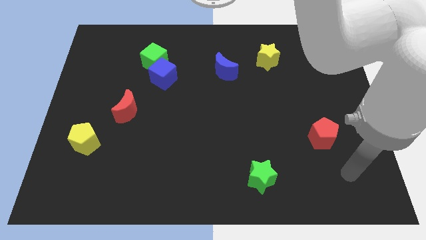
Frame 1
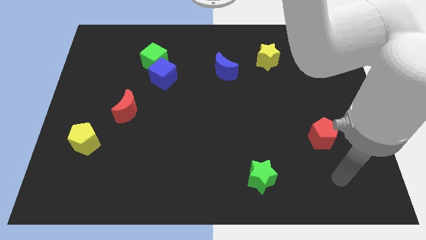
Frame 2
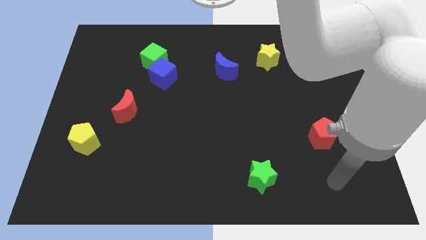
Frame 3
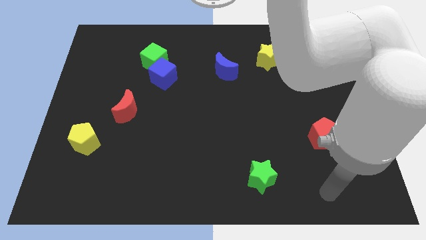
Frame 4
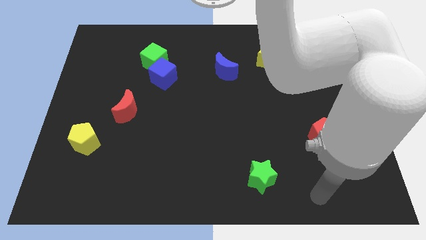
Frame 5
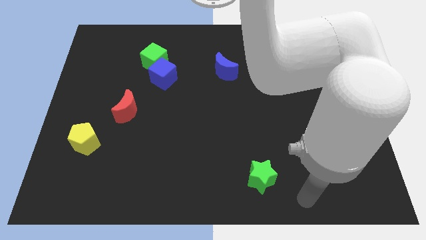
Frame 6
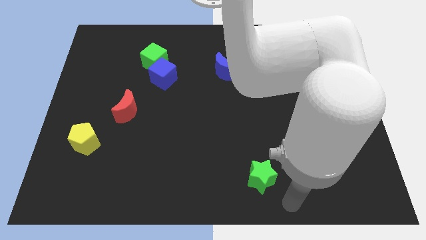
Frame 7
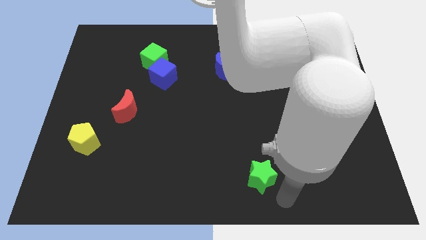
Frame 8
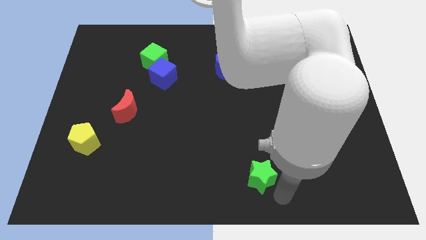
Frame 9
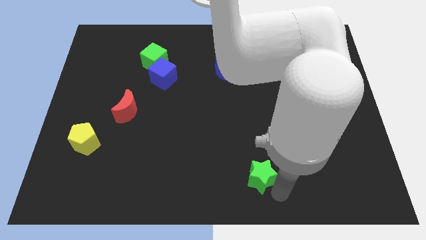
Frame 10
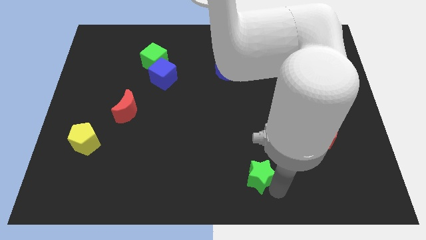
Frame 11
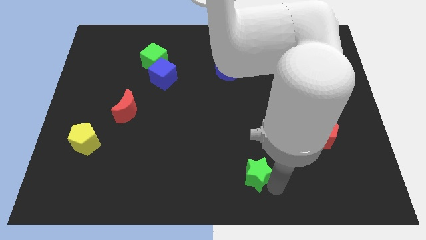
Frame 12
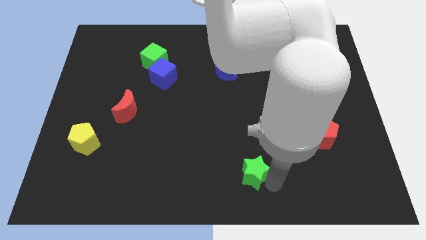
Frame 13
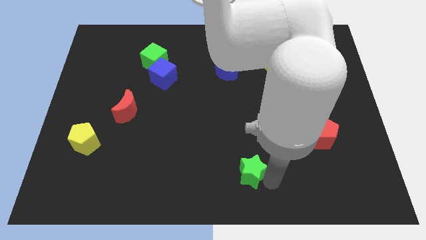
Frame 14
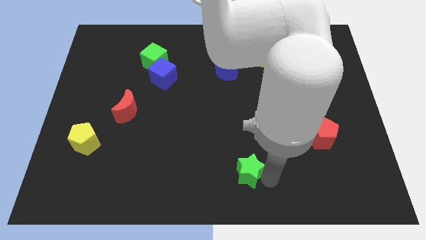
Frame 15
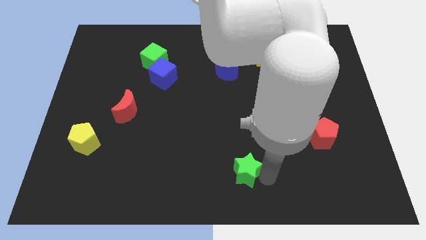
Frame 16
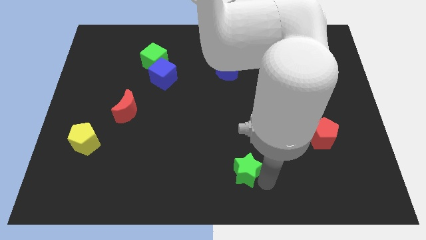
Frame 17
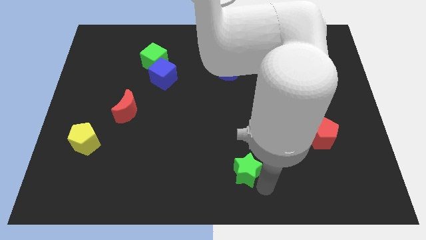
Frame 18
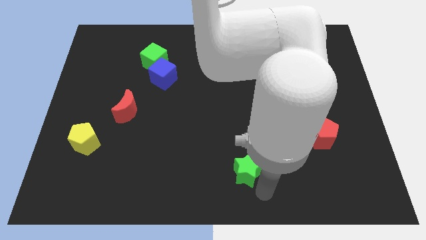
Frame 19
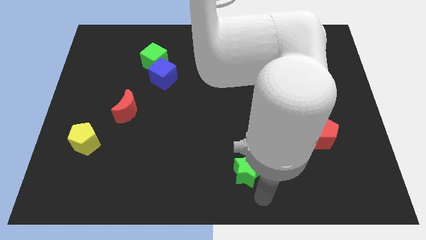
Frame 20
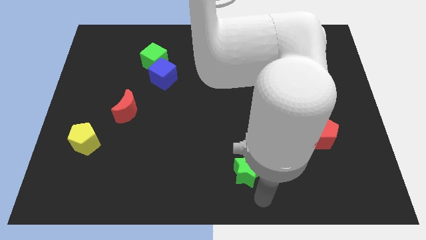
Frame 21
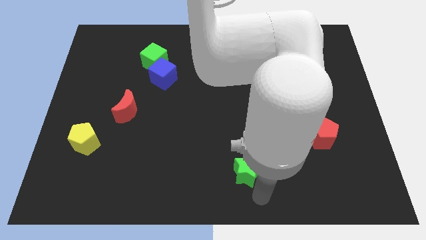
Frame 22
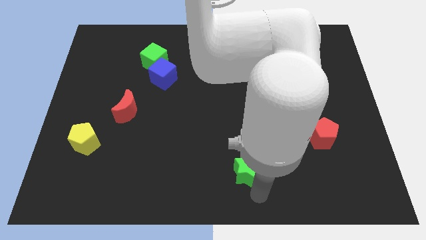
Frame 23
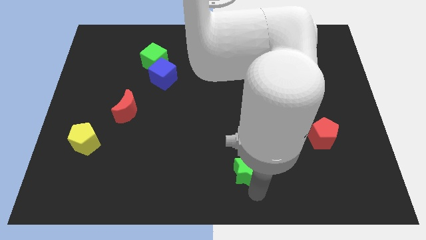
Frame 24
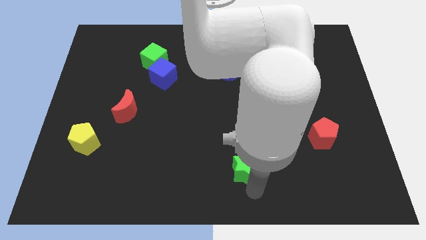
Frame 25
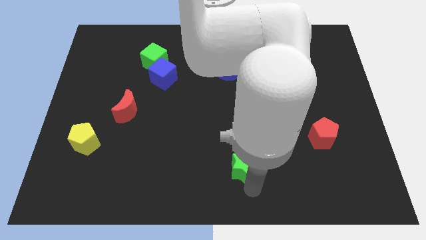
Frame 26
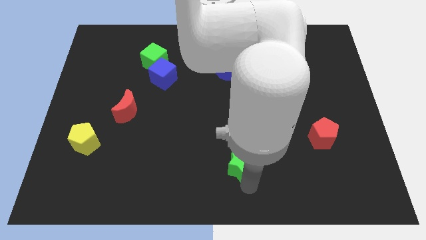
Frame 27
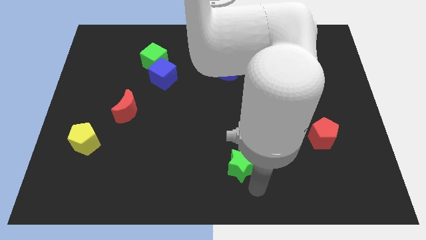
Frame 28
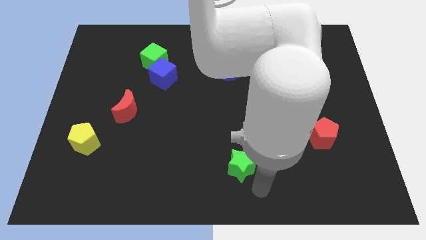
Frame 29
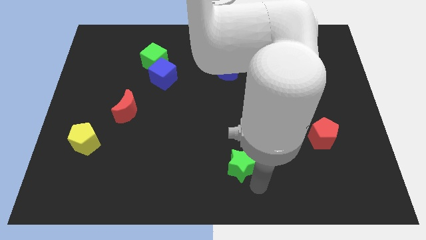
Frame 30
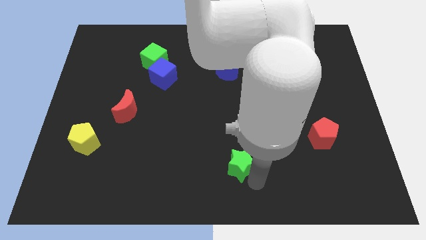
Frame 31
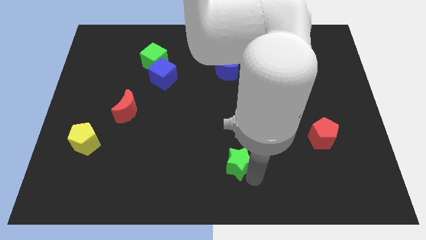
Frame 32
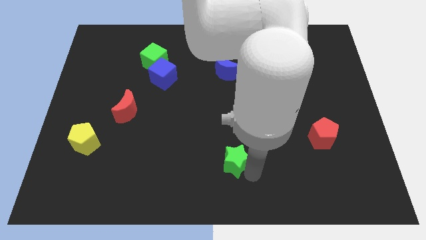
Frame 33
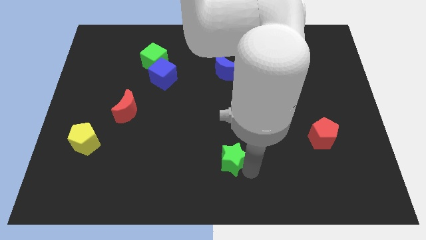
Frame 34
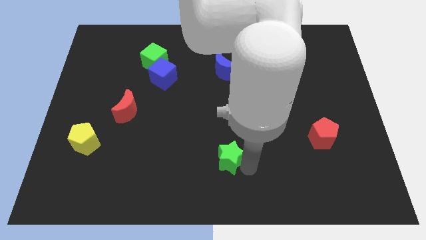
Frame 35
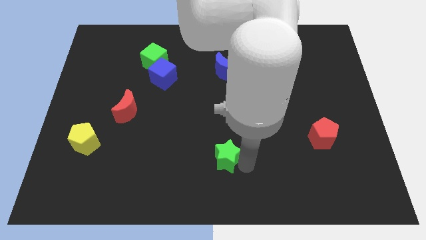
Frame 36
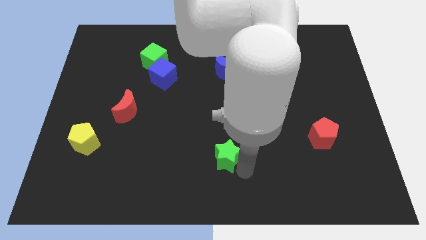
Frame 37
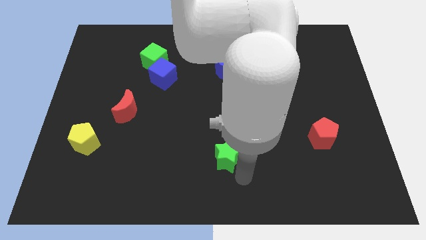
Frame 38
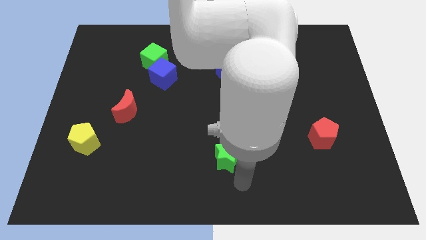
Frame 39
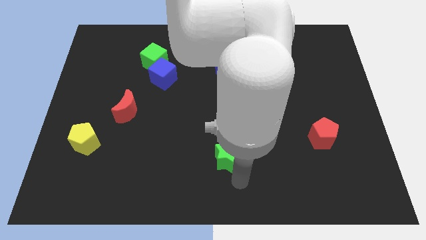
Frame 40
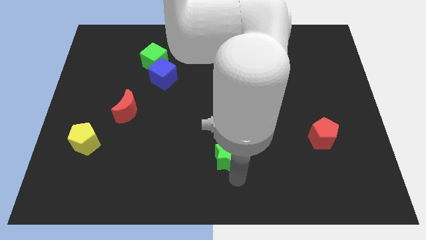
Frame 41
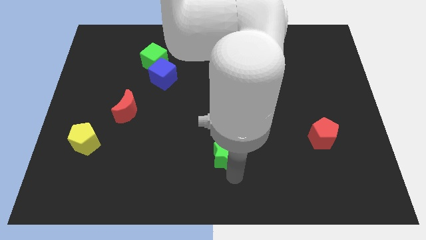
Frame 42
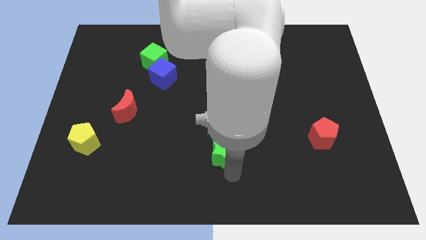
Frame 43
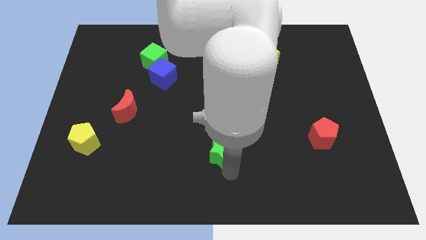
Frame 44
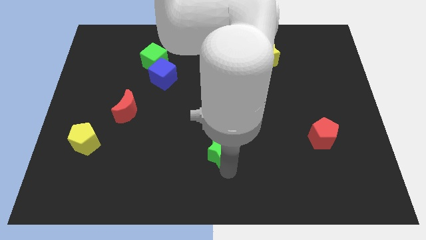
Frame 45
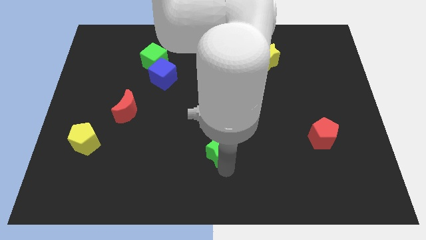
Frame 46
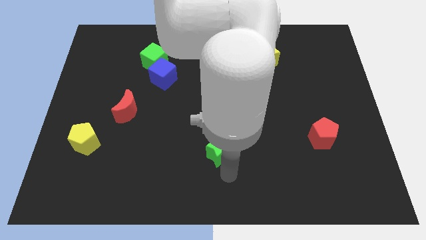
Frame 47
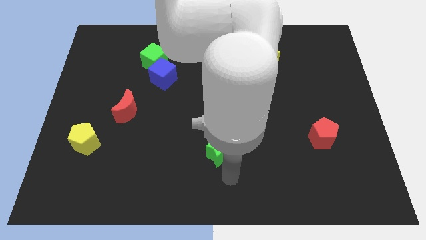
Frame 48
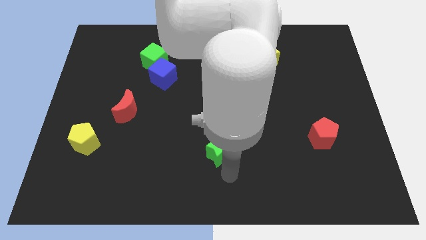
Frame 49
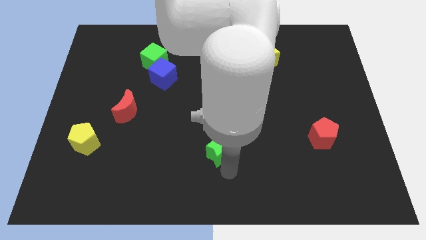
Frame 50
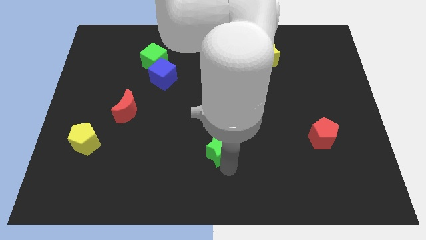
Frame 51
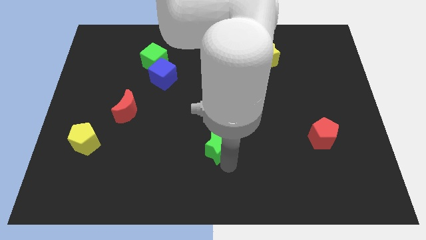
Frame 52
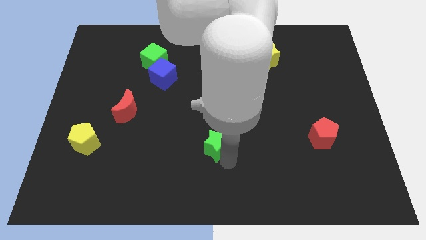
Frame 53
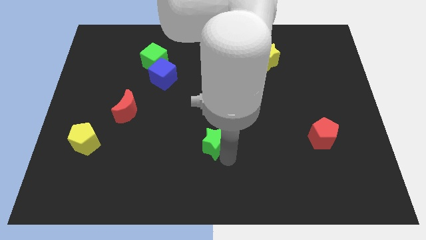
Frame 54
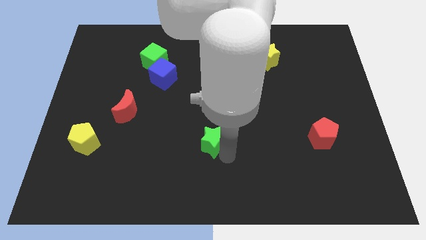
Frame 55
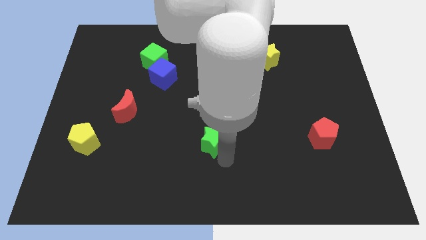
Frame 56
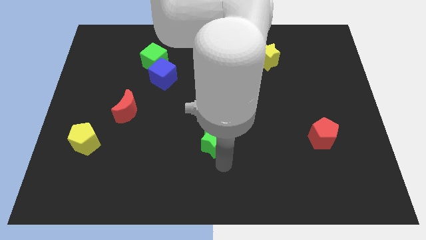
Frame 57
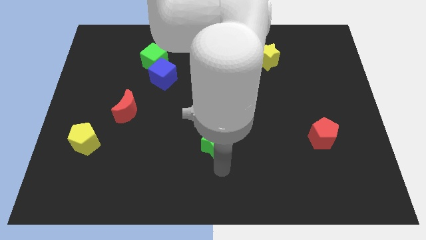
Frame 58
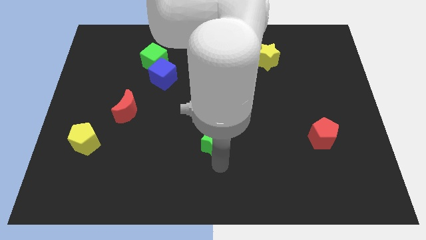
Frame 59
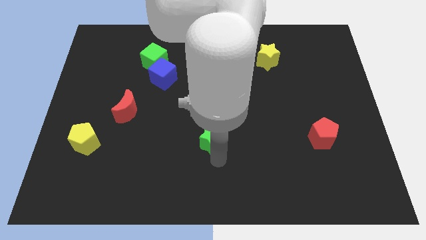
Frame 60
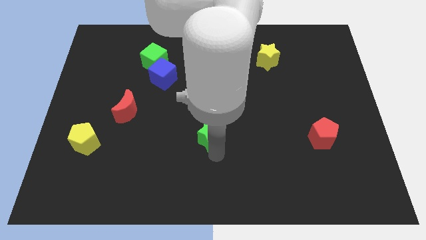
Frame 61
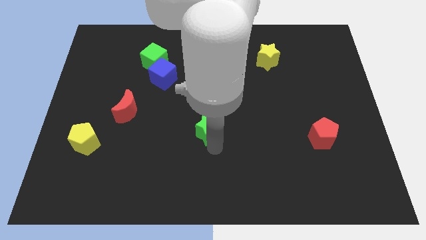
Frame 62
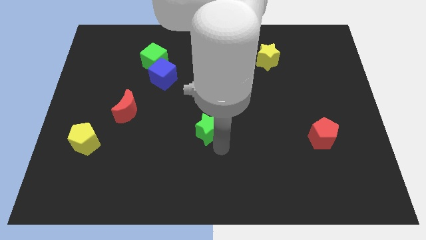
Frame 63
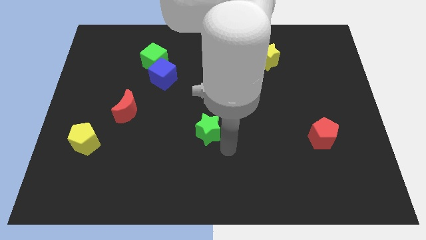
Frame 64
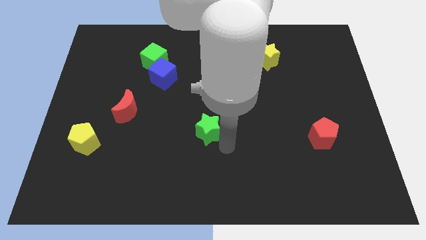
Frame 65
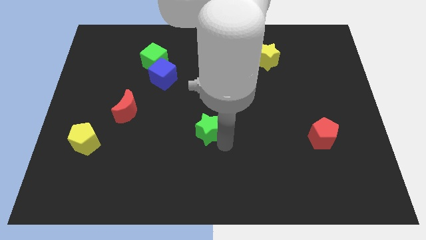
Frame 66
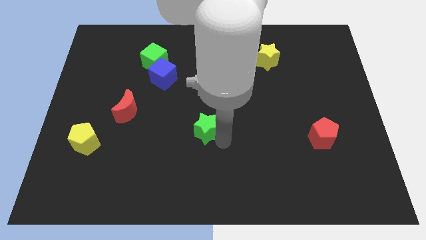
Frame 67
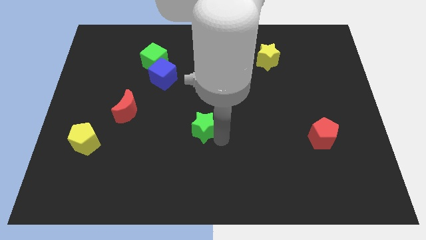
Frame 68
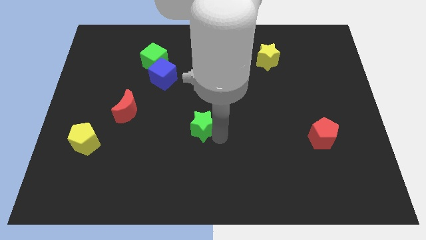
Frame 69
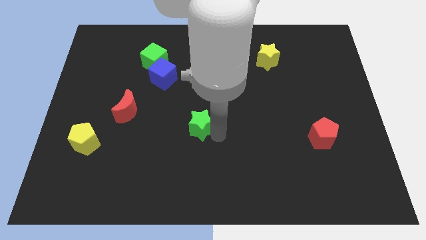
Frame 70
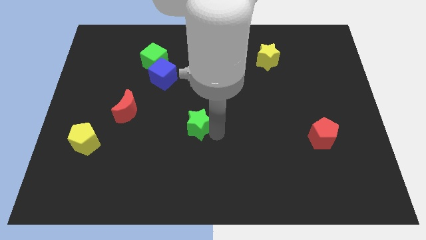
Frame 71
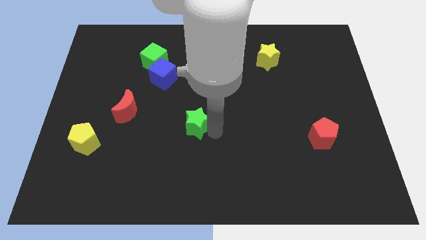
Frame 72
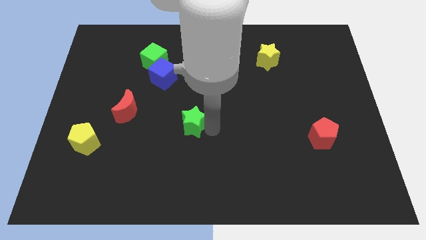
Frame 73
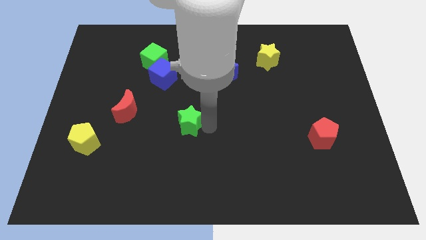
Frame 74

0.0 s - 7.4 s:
move the green star up and then to the left

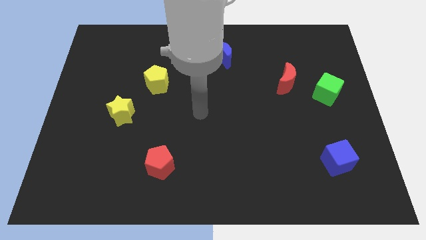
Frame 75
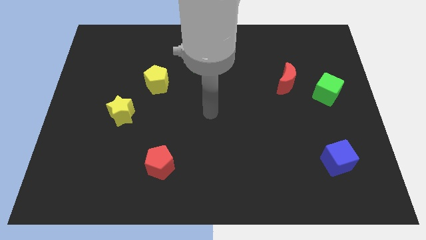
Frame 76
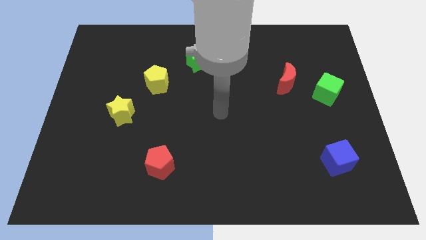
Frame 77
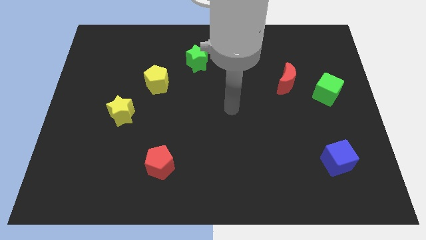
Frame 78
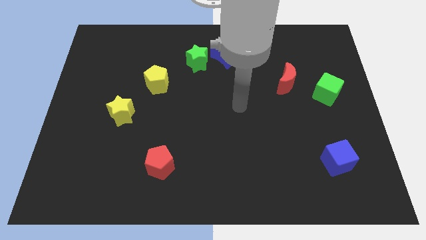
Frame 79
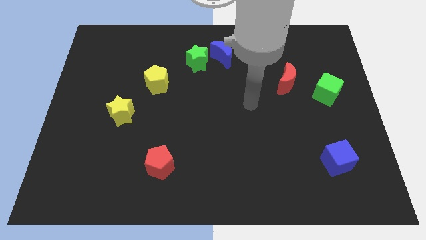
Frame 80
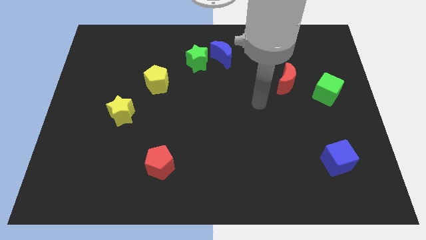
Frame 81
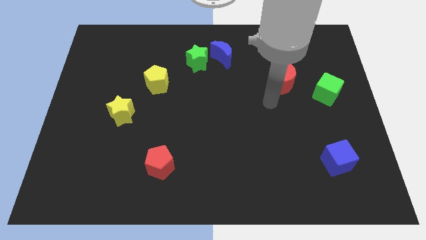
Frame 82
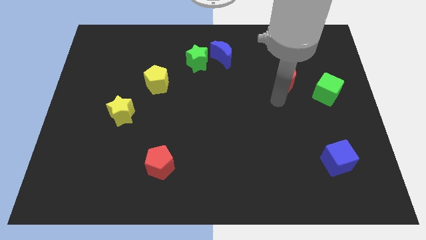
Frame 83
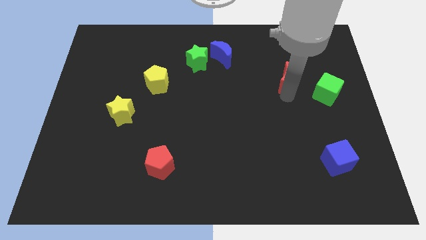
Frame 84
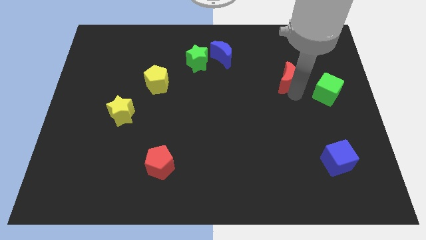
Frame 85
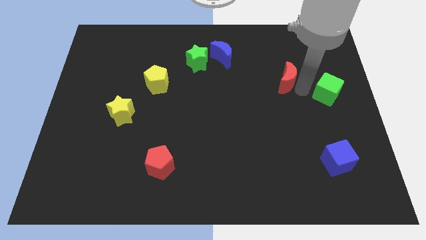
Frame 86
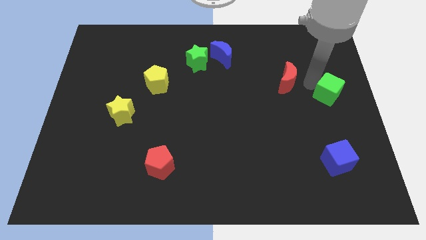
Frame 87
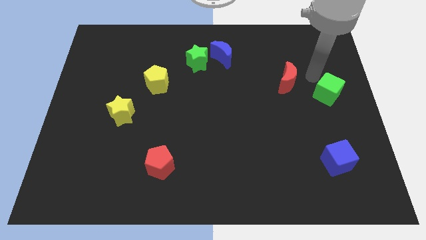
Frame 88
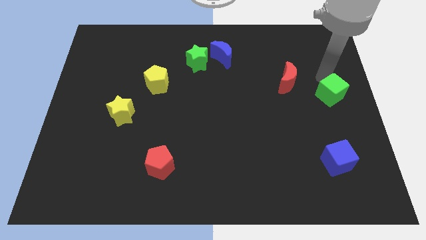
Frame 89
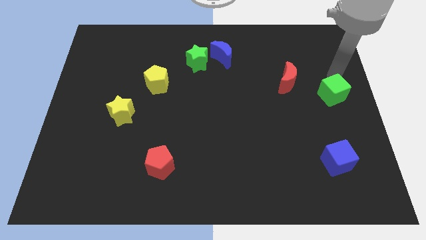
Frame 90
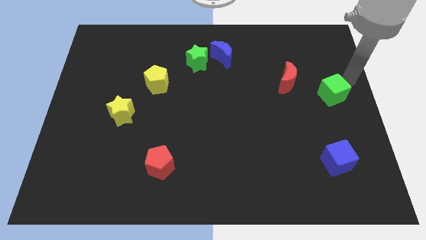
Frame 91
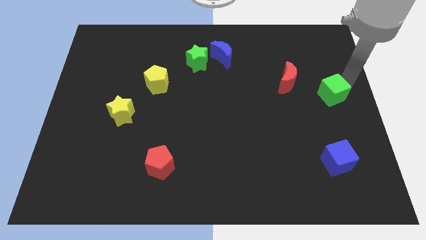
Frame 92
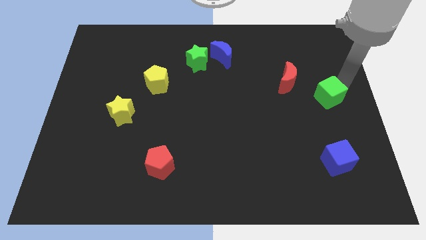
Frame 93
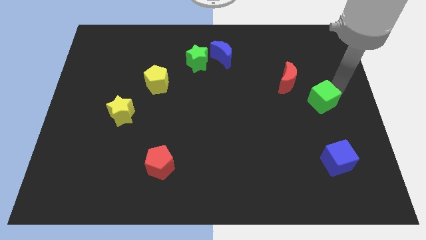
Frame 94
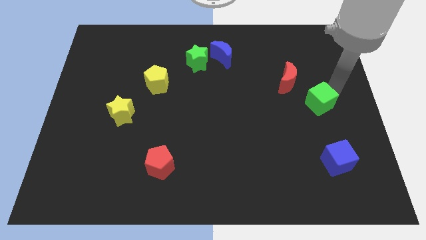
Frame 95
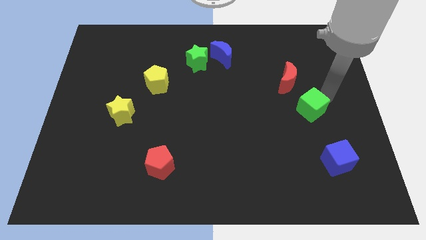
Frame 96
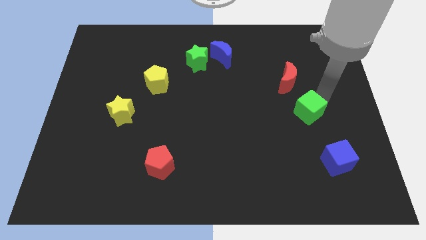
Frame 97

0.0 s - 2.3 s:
slightly move the green cube downwards and left
